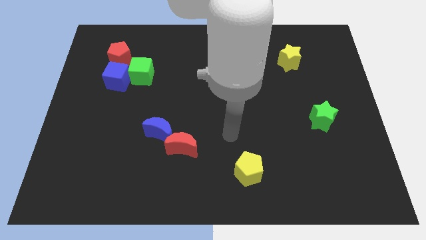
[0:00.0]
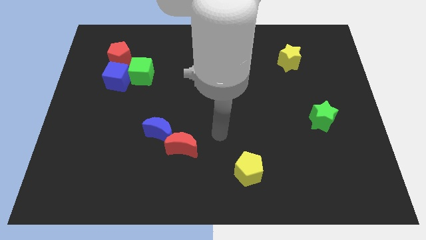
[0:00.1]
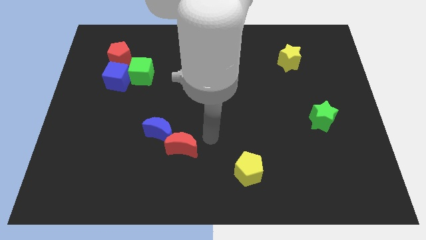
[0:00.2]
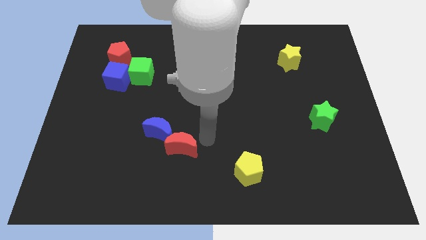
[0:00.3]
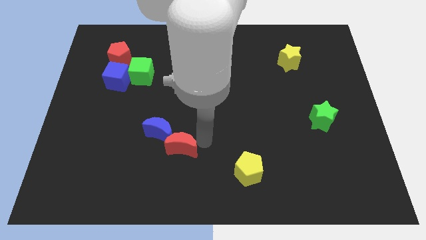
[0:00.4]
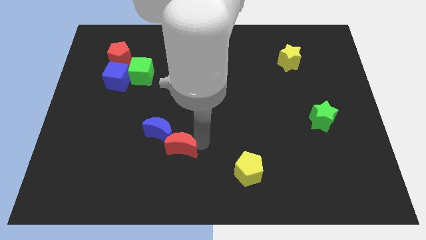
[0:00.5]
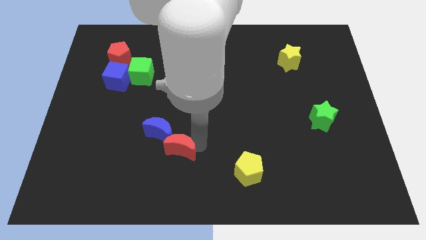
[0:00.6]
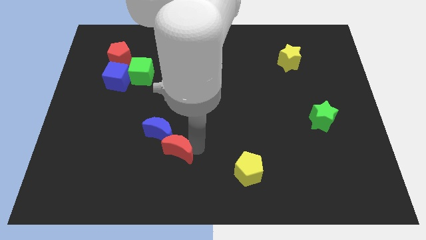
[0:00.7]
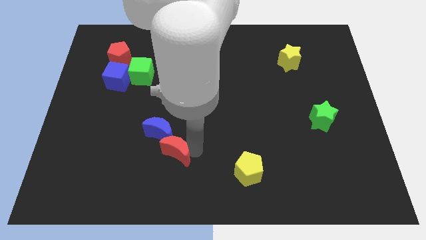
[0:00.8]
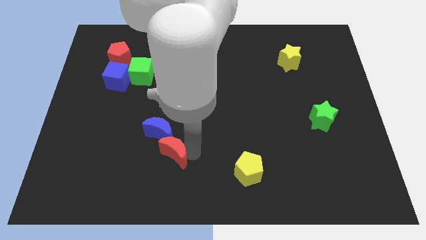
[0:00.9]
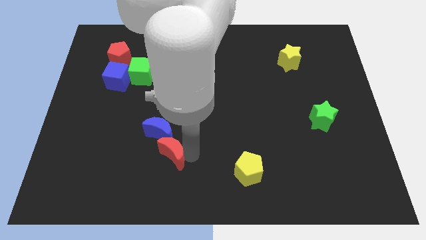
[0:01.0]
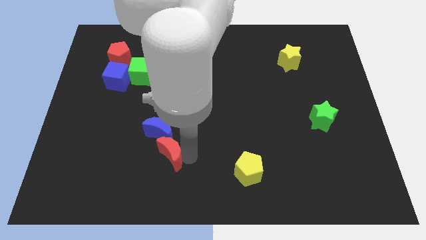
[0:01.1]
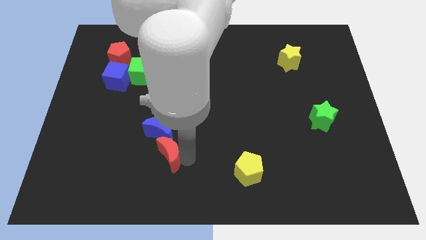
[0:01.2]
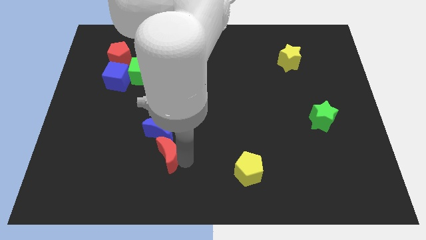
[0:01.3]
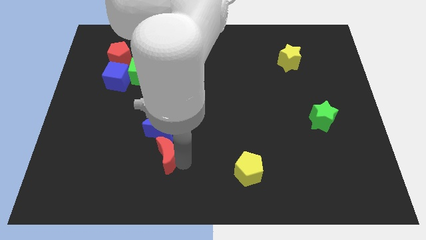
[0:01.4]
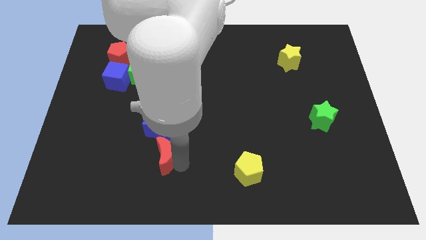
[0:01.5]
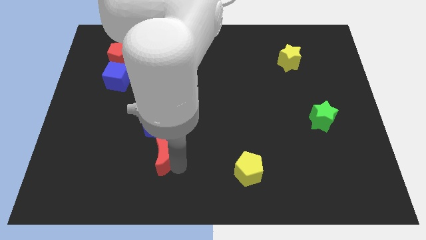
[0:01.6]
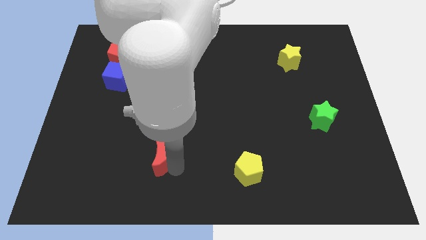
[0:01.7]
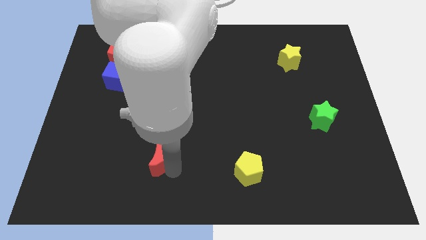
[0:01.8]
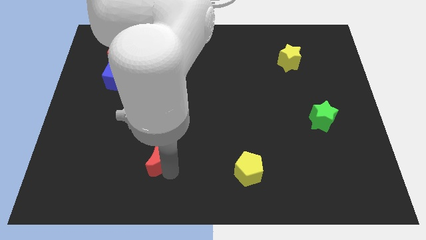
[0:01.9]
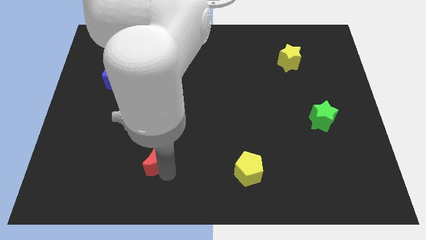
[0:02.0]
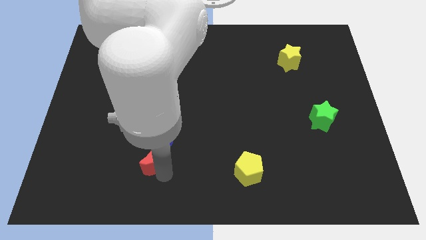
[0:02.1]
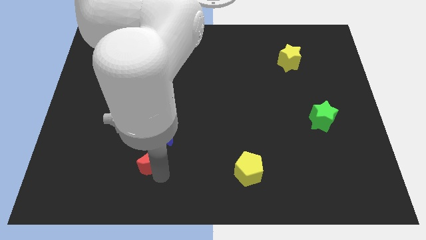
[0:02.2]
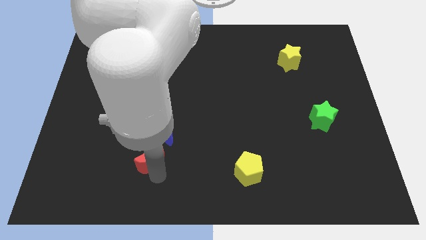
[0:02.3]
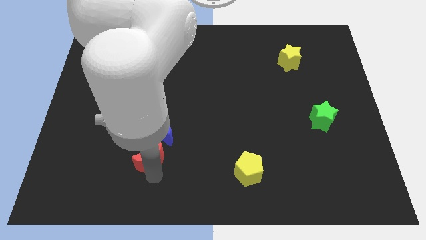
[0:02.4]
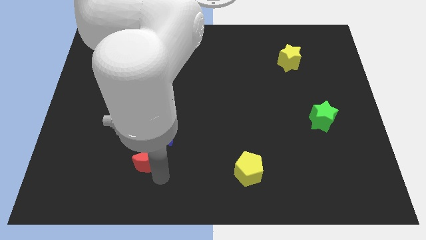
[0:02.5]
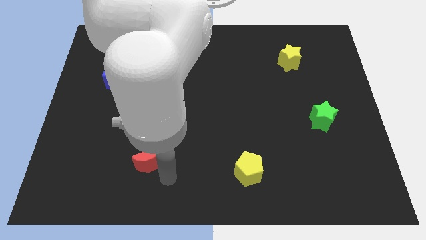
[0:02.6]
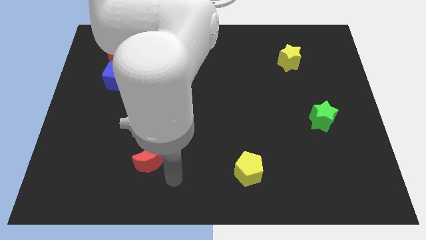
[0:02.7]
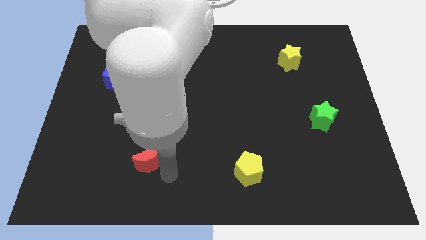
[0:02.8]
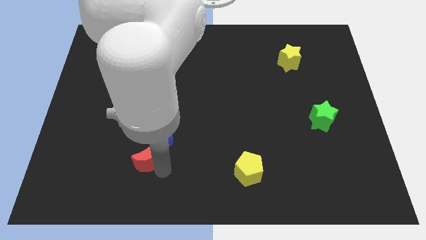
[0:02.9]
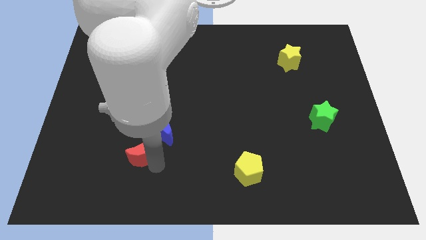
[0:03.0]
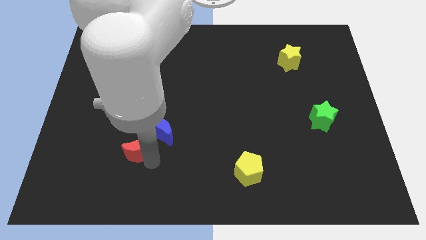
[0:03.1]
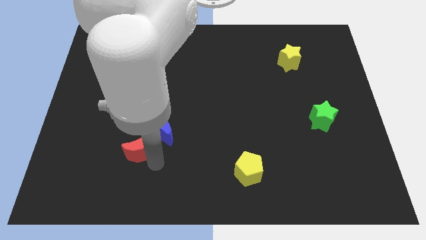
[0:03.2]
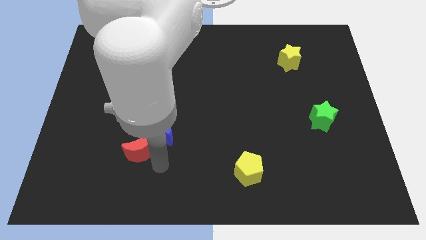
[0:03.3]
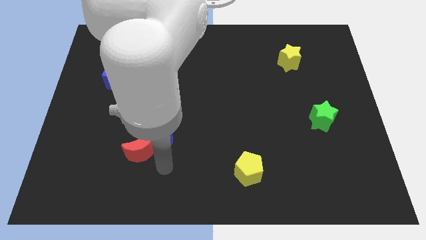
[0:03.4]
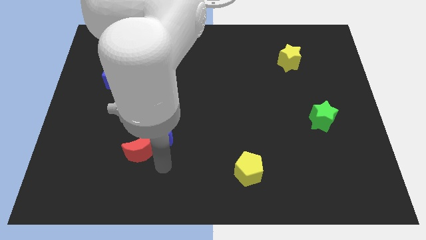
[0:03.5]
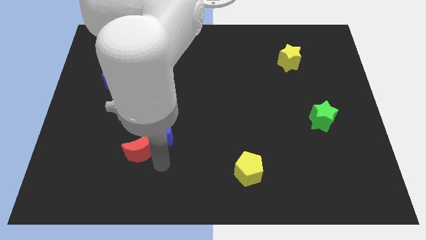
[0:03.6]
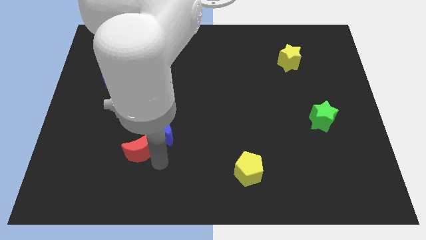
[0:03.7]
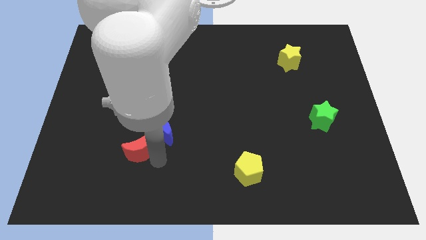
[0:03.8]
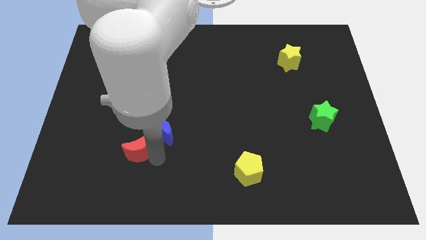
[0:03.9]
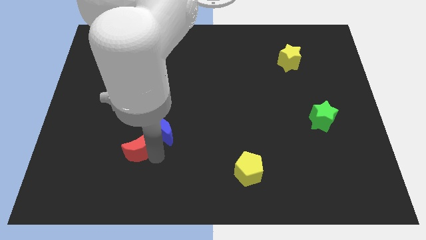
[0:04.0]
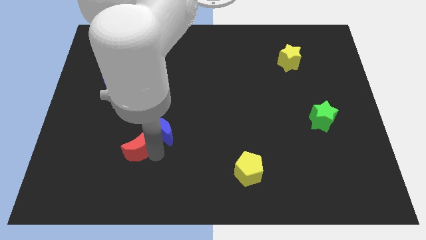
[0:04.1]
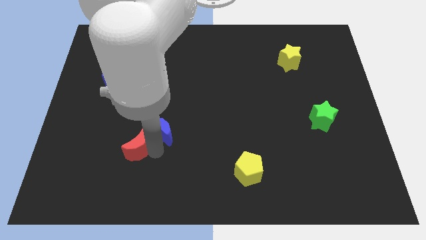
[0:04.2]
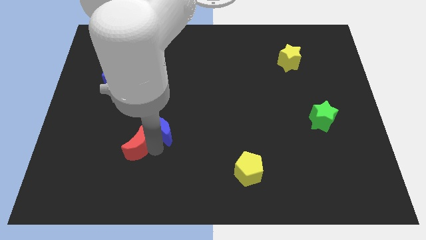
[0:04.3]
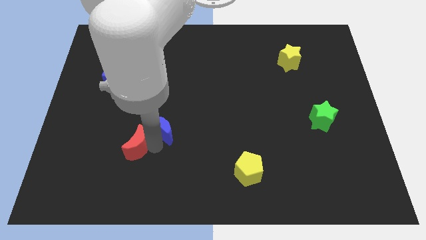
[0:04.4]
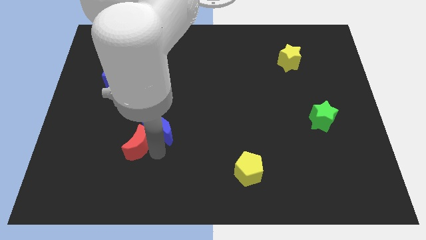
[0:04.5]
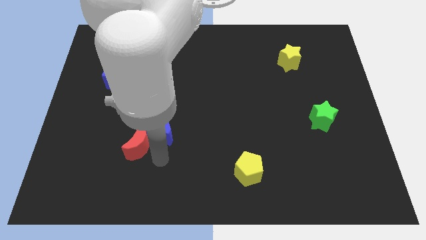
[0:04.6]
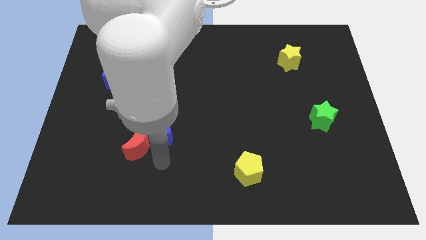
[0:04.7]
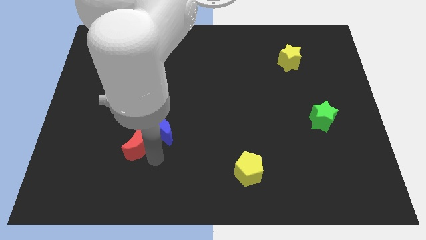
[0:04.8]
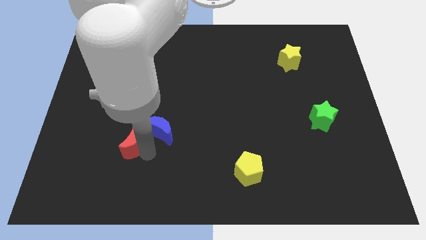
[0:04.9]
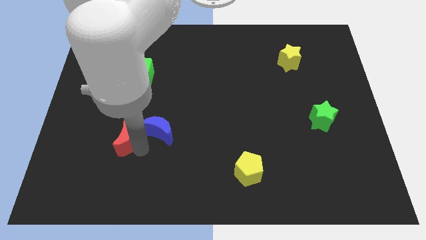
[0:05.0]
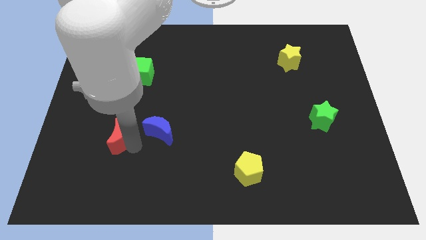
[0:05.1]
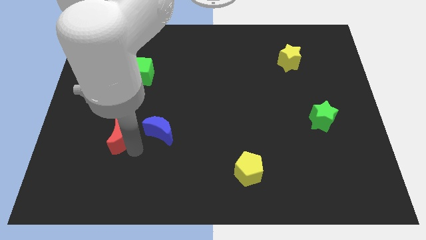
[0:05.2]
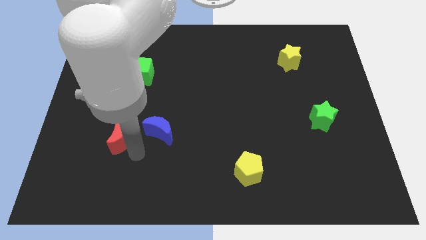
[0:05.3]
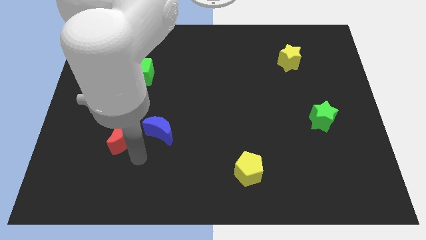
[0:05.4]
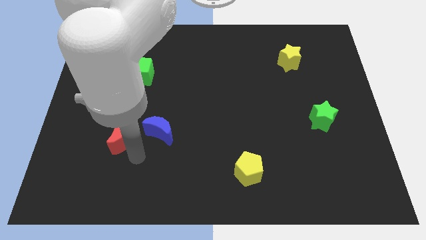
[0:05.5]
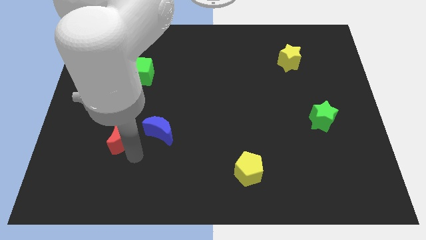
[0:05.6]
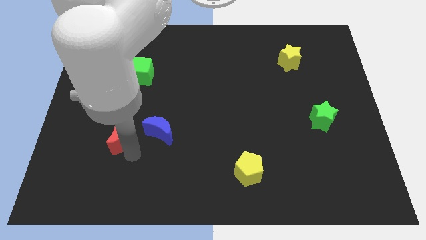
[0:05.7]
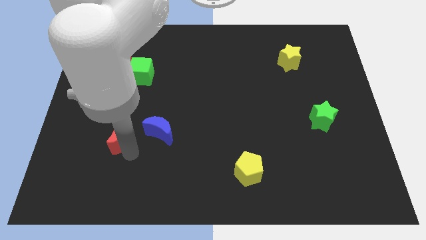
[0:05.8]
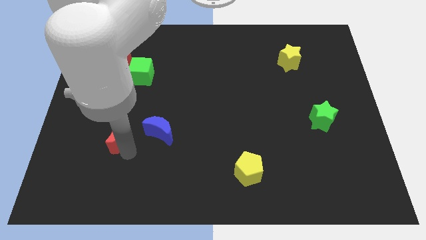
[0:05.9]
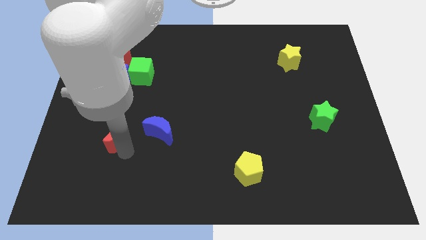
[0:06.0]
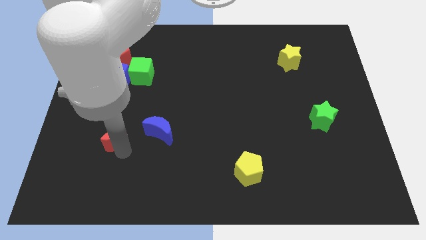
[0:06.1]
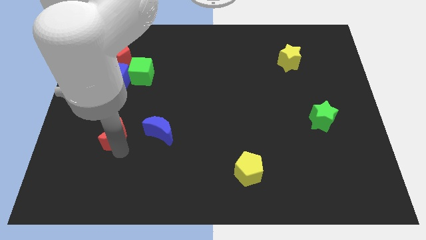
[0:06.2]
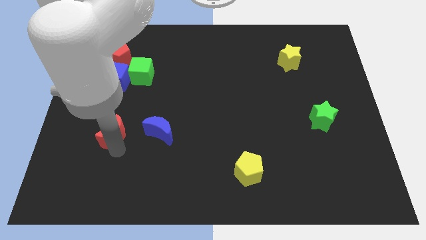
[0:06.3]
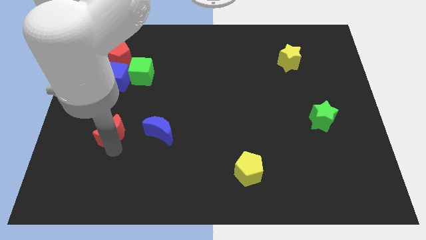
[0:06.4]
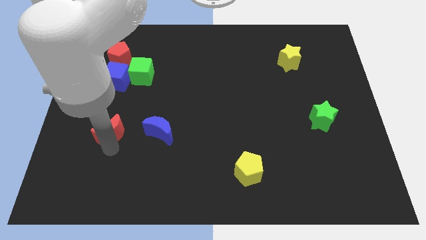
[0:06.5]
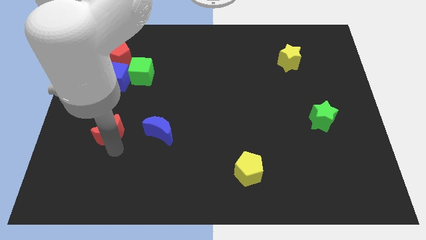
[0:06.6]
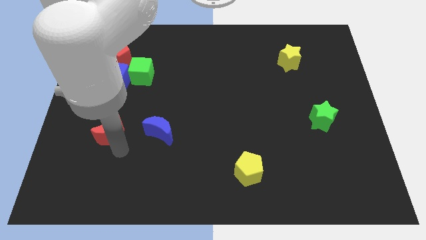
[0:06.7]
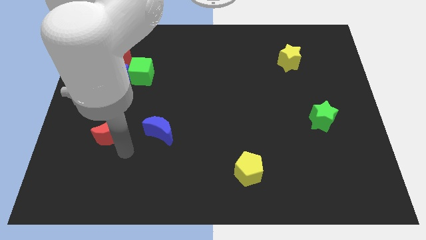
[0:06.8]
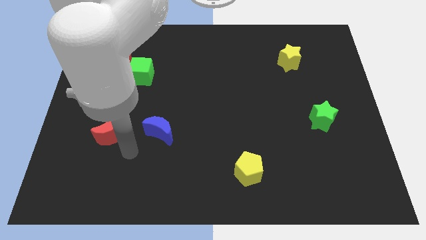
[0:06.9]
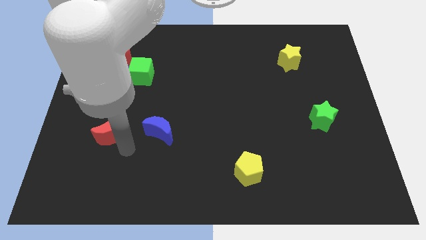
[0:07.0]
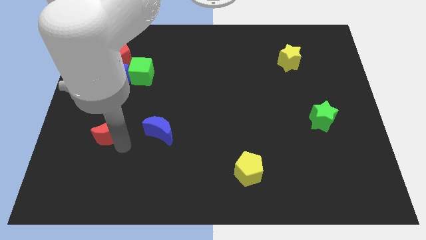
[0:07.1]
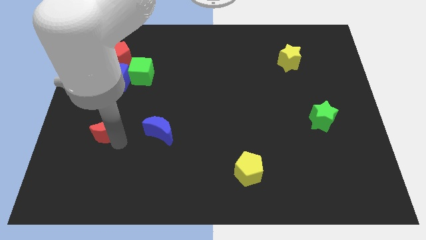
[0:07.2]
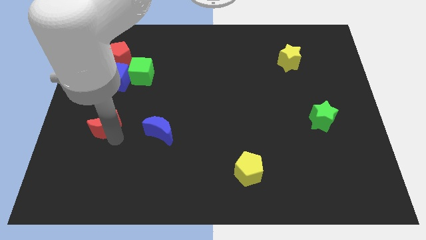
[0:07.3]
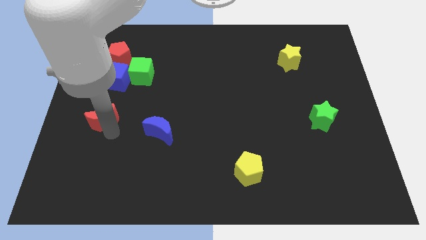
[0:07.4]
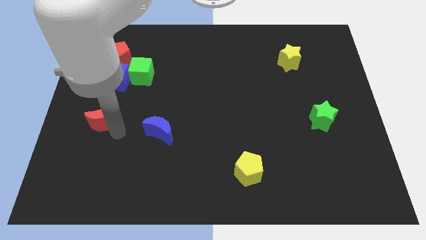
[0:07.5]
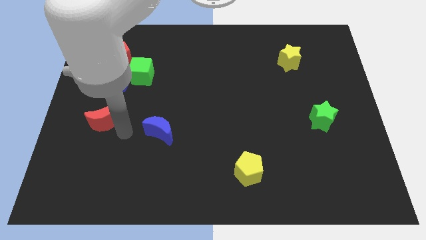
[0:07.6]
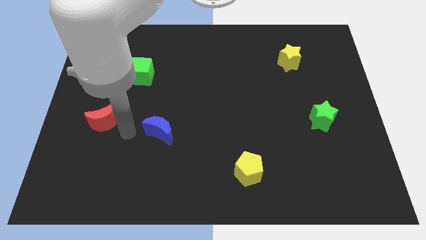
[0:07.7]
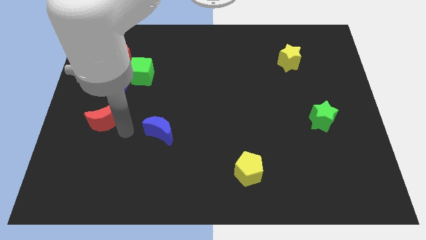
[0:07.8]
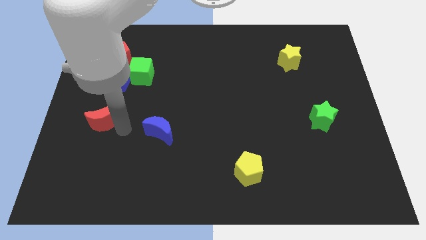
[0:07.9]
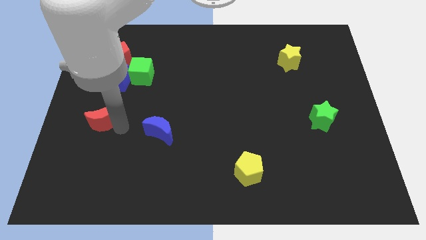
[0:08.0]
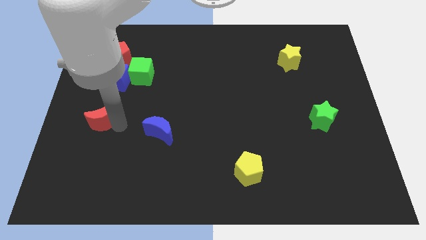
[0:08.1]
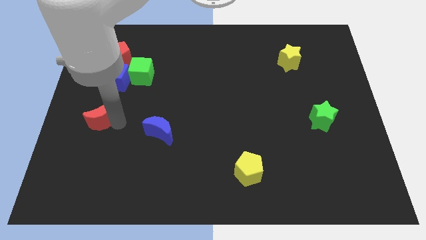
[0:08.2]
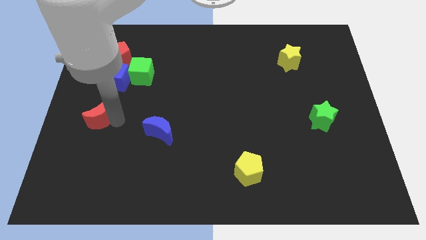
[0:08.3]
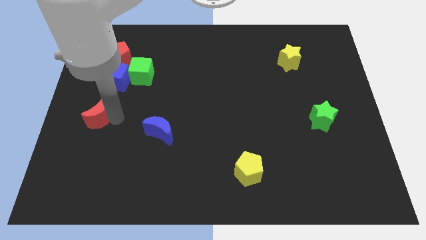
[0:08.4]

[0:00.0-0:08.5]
put the red moon to the center left
